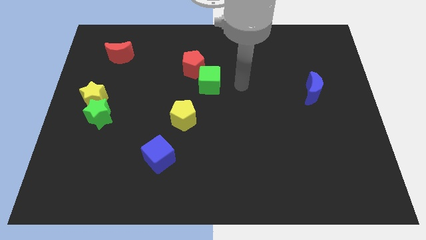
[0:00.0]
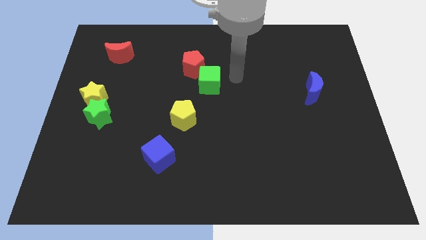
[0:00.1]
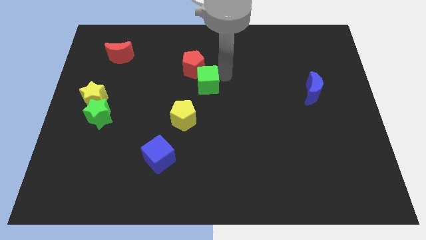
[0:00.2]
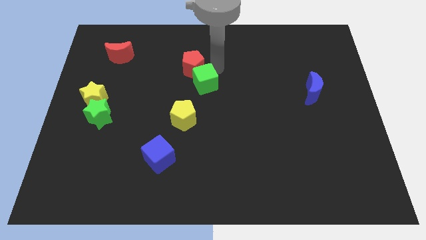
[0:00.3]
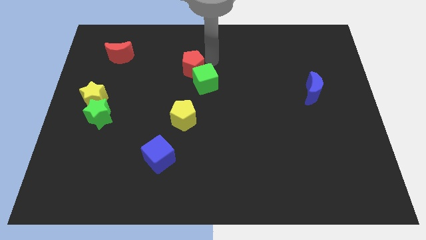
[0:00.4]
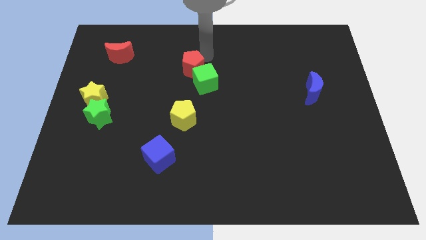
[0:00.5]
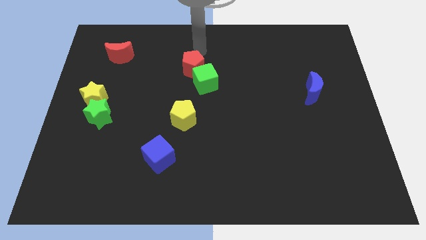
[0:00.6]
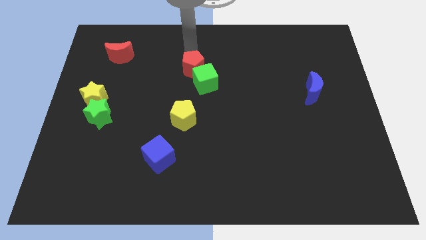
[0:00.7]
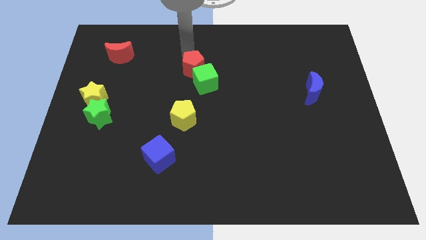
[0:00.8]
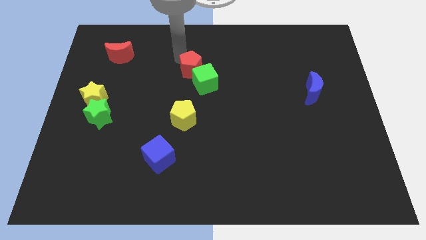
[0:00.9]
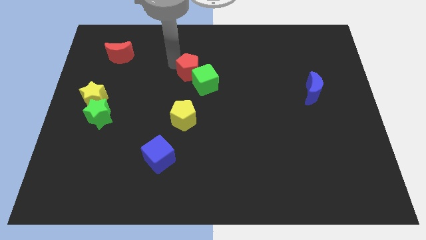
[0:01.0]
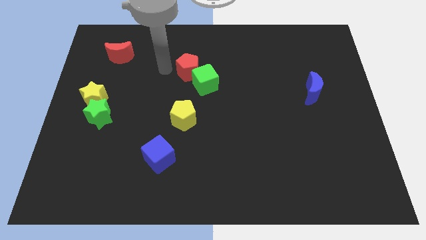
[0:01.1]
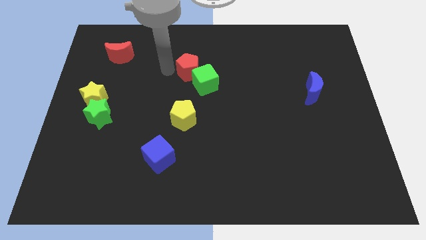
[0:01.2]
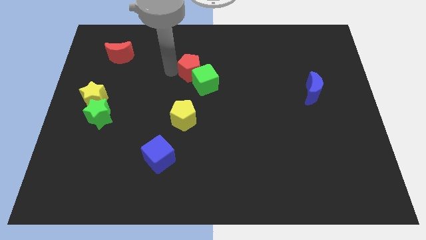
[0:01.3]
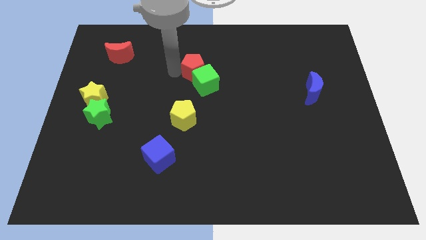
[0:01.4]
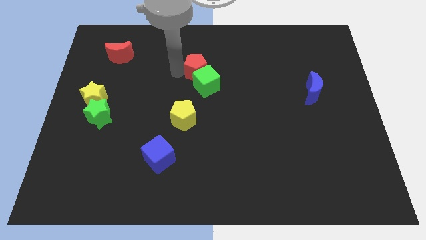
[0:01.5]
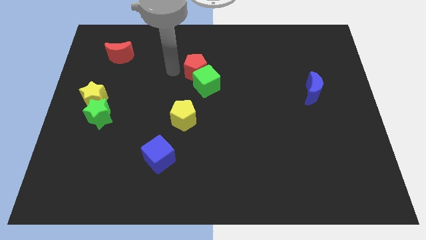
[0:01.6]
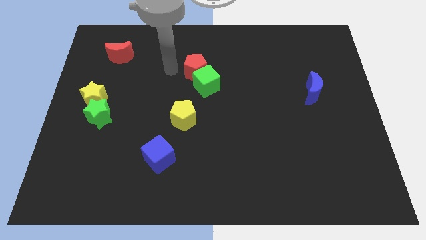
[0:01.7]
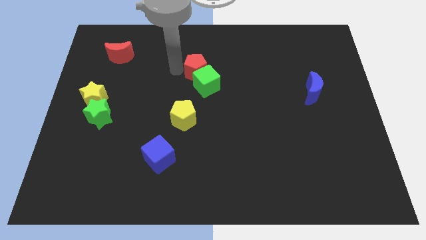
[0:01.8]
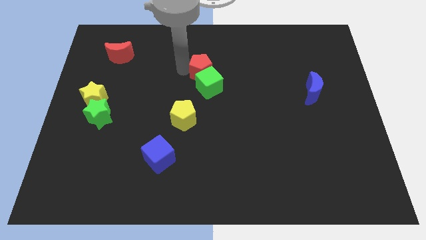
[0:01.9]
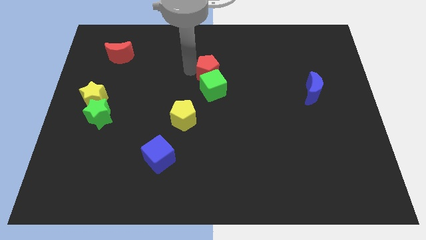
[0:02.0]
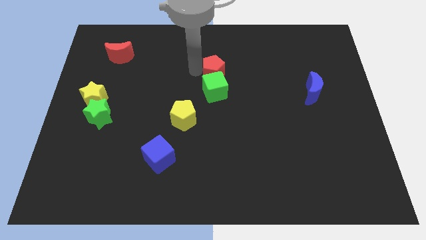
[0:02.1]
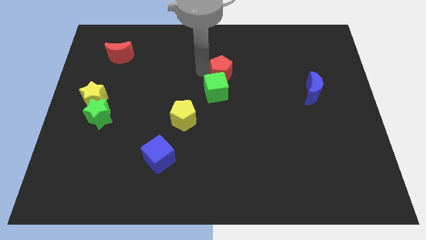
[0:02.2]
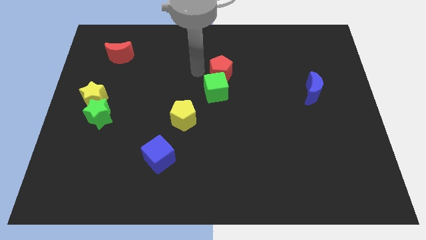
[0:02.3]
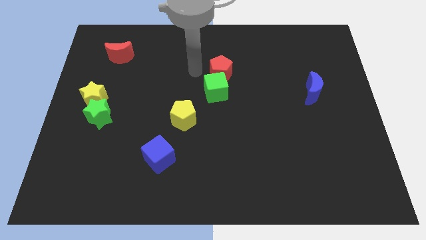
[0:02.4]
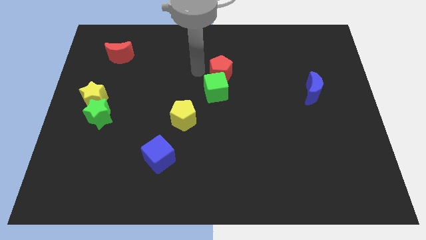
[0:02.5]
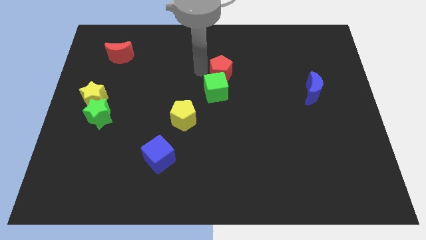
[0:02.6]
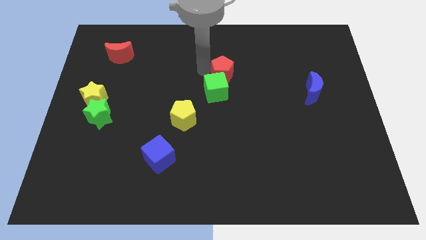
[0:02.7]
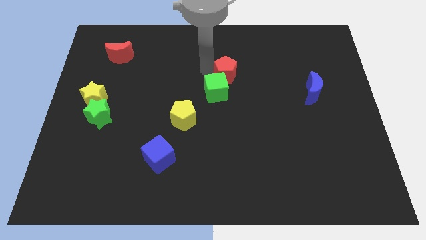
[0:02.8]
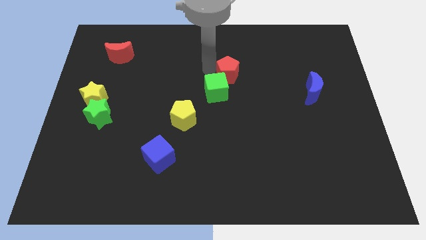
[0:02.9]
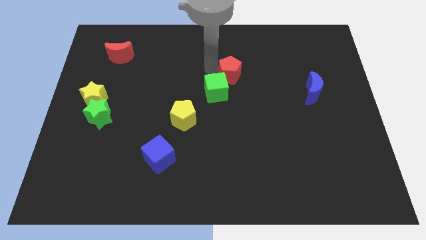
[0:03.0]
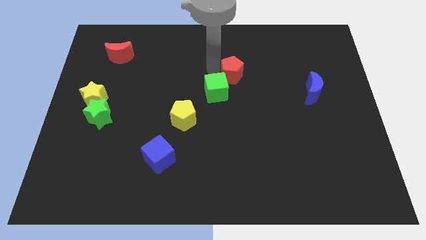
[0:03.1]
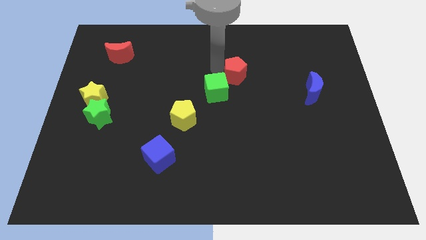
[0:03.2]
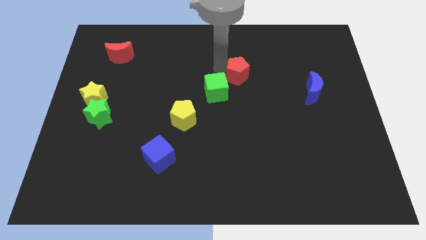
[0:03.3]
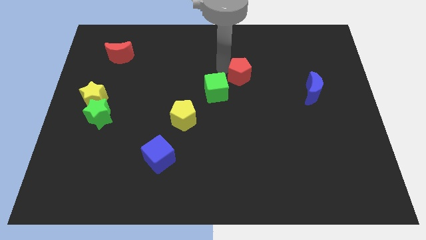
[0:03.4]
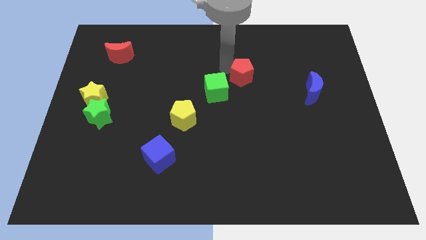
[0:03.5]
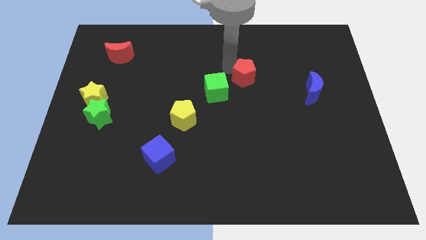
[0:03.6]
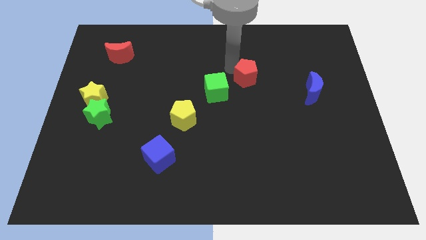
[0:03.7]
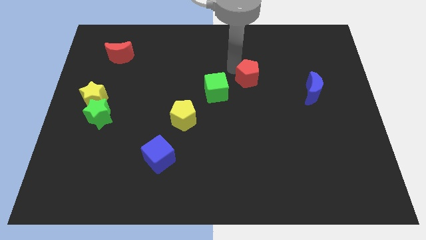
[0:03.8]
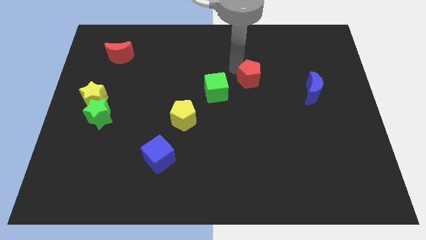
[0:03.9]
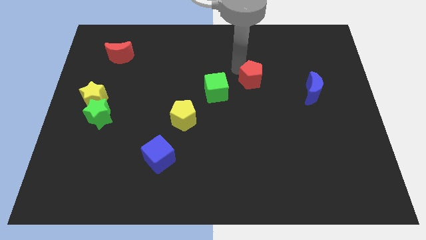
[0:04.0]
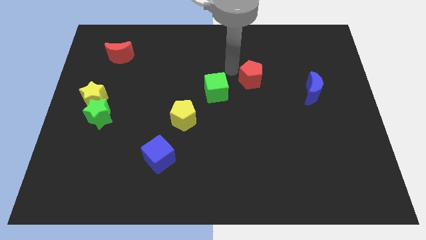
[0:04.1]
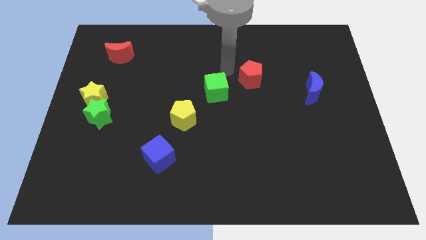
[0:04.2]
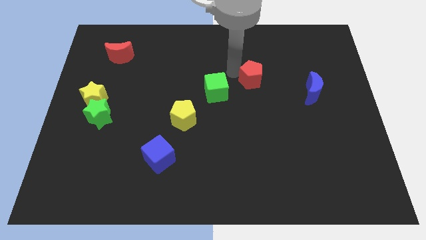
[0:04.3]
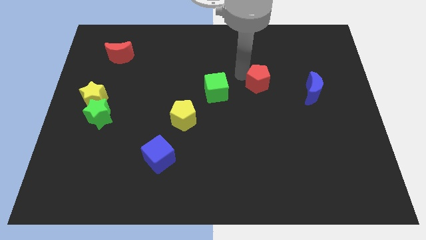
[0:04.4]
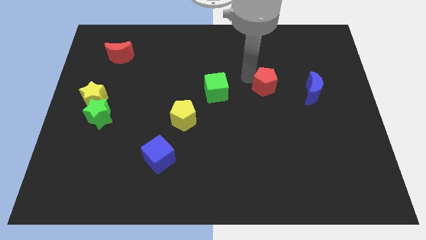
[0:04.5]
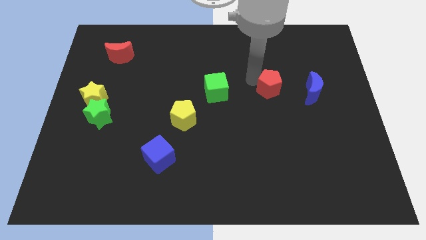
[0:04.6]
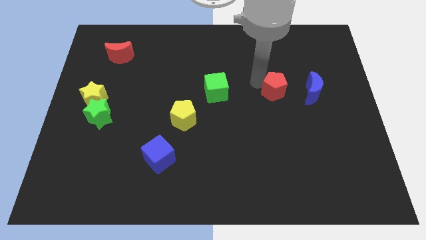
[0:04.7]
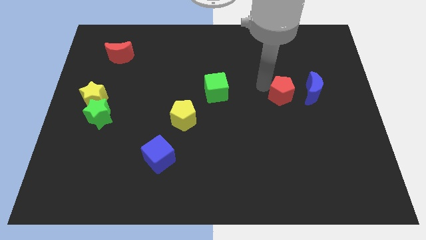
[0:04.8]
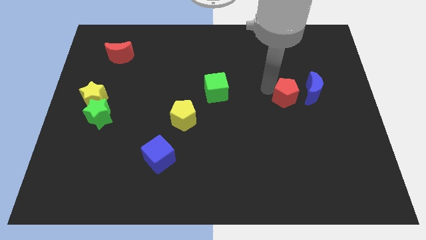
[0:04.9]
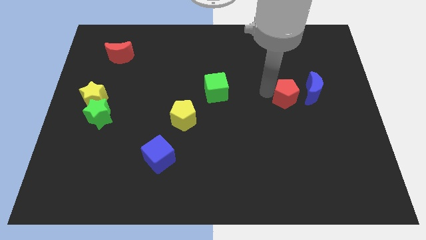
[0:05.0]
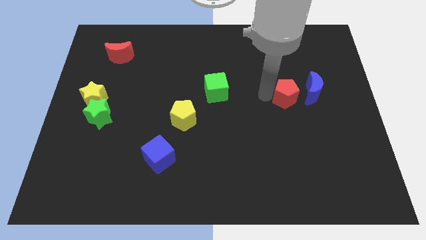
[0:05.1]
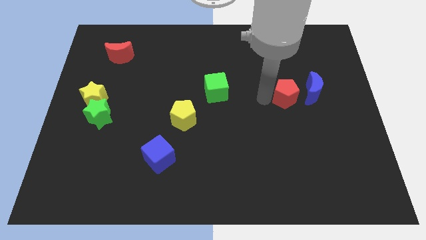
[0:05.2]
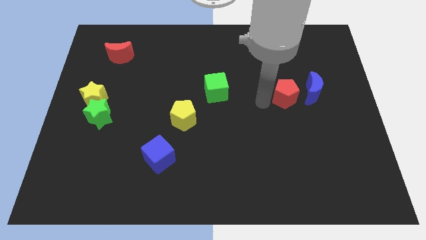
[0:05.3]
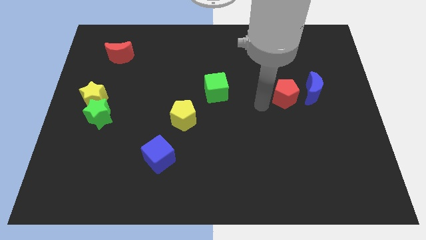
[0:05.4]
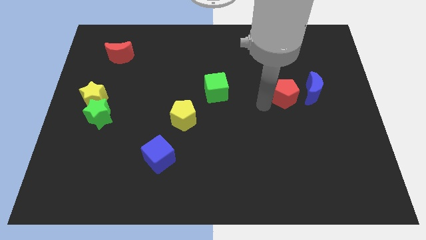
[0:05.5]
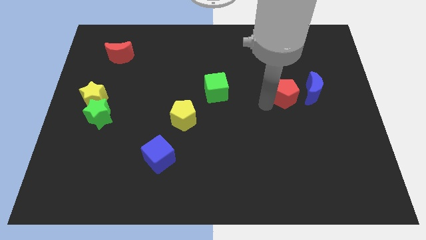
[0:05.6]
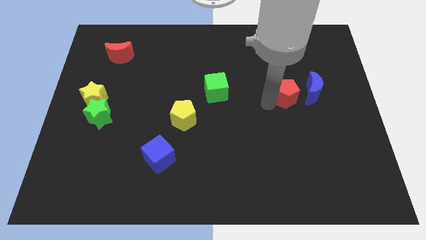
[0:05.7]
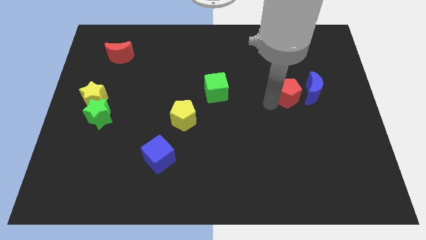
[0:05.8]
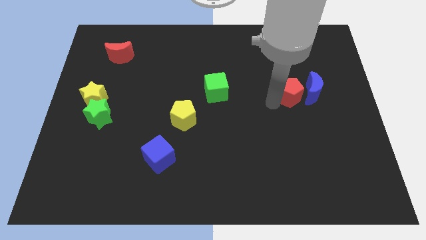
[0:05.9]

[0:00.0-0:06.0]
put the red pentagon next to the blue moon

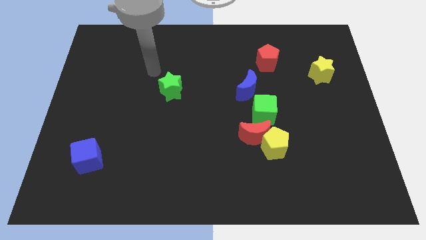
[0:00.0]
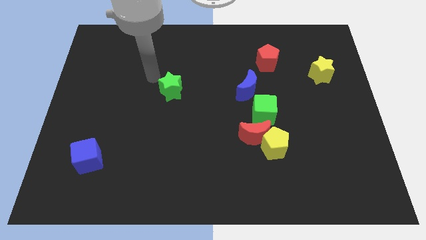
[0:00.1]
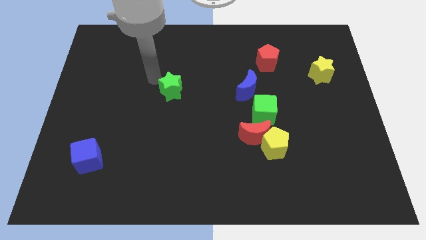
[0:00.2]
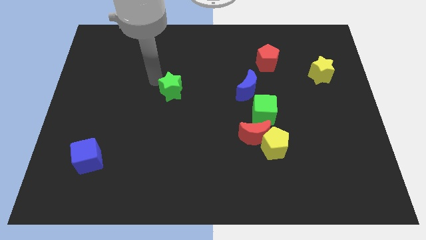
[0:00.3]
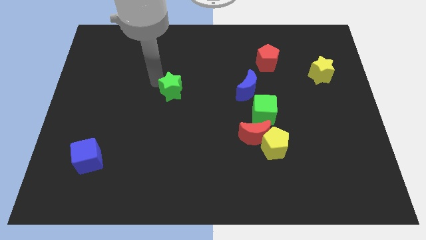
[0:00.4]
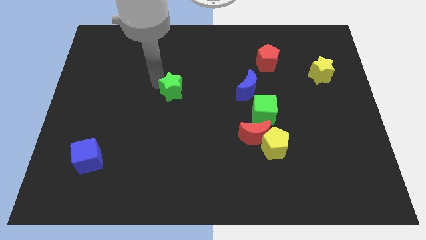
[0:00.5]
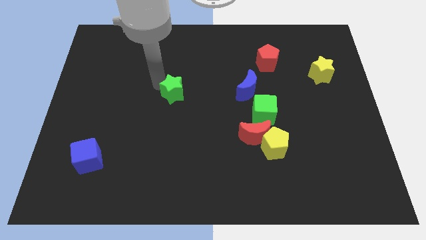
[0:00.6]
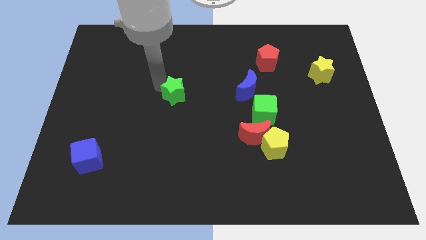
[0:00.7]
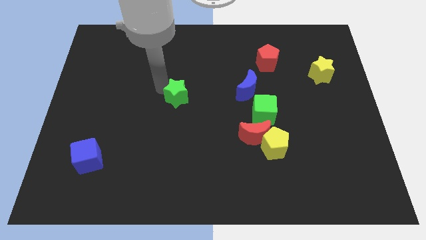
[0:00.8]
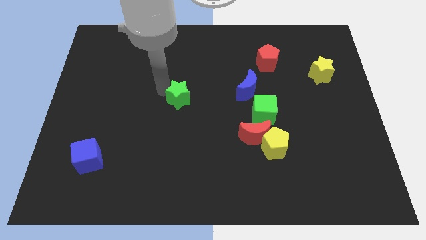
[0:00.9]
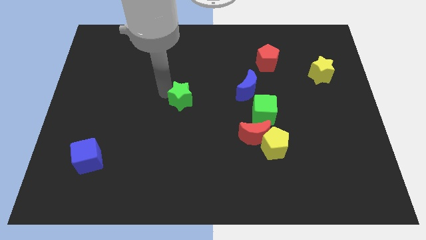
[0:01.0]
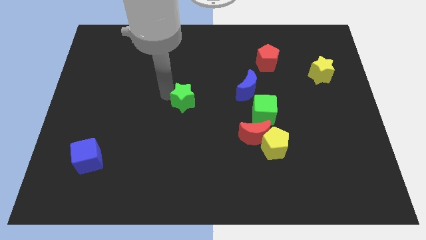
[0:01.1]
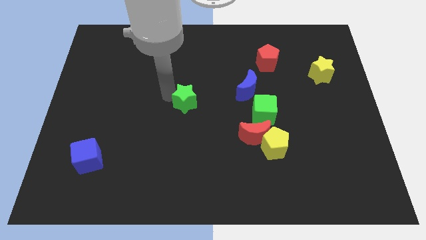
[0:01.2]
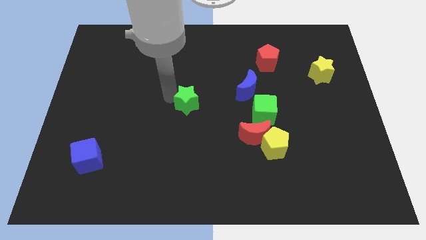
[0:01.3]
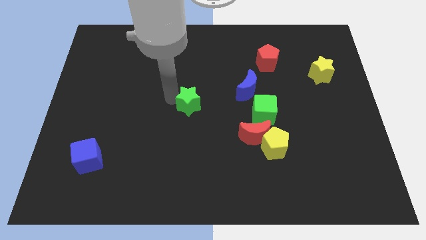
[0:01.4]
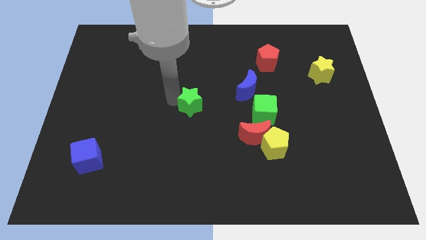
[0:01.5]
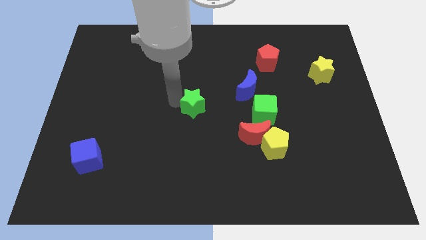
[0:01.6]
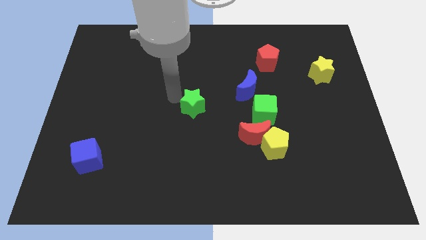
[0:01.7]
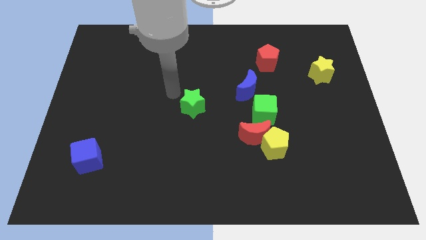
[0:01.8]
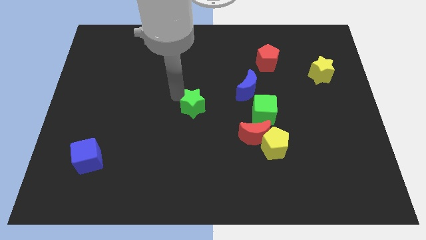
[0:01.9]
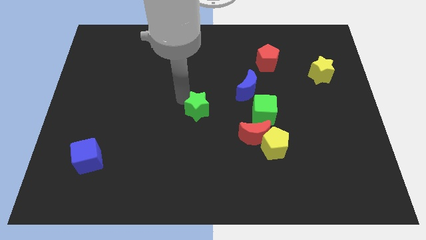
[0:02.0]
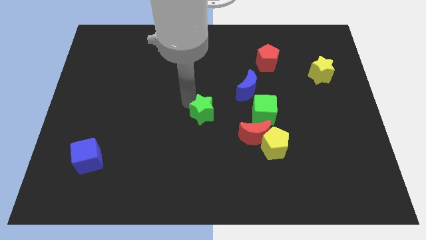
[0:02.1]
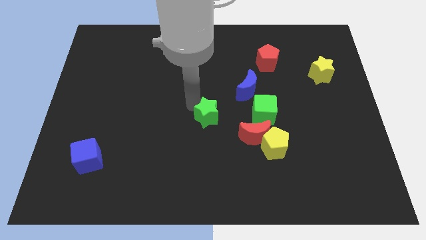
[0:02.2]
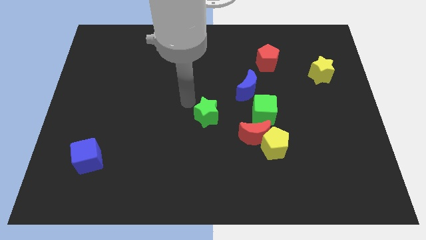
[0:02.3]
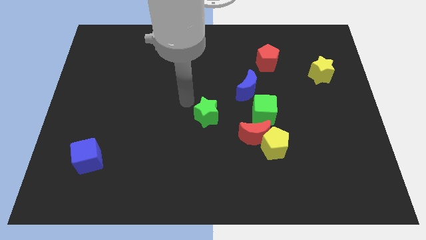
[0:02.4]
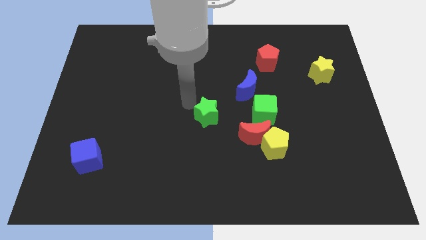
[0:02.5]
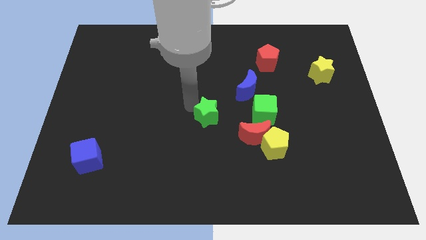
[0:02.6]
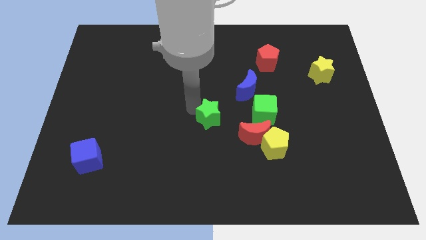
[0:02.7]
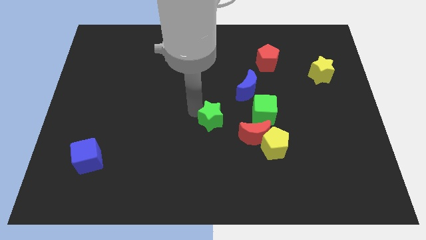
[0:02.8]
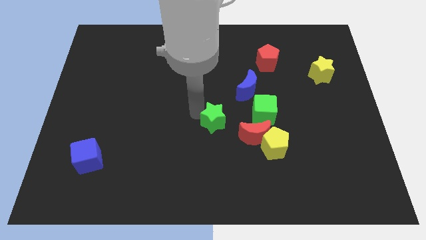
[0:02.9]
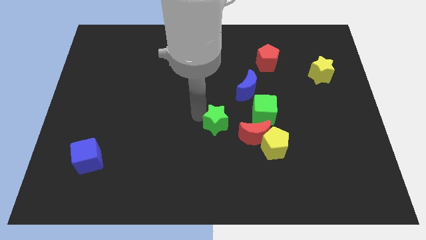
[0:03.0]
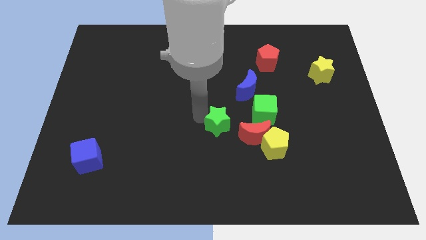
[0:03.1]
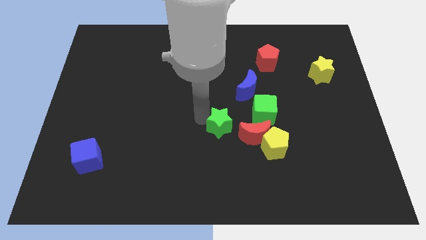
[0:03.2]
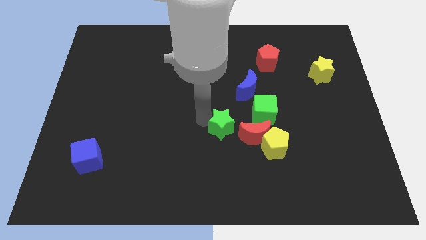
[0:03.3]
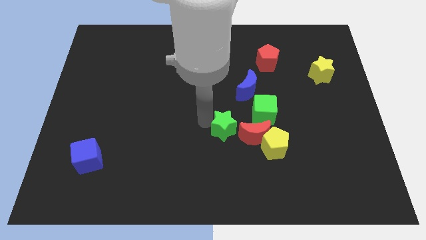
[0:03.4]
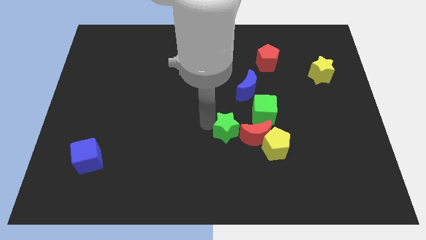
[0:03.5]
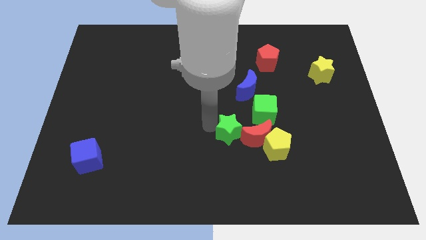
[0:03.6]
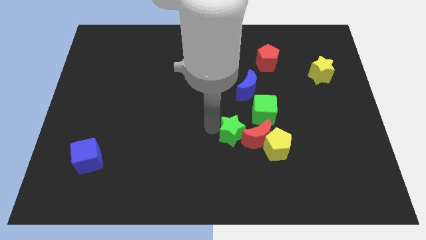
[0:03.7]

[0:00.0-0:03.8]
put the green star close to the red moon
